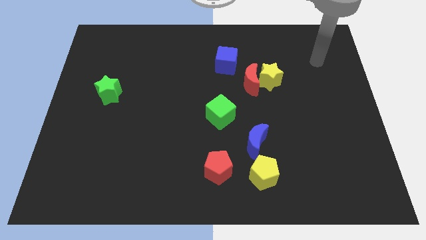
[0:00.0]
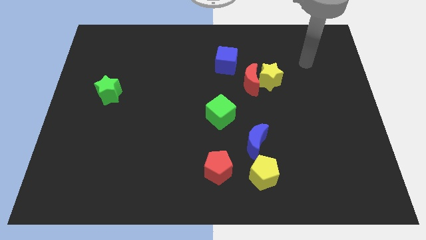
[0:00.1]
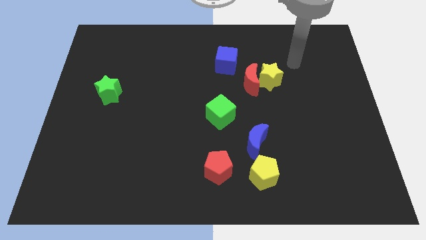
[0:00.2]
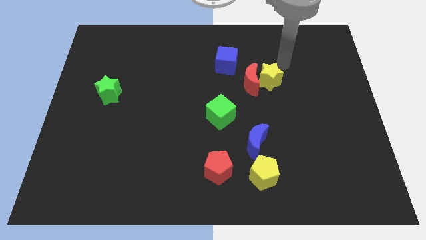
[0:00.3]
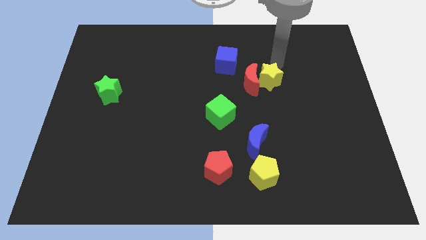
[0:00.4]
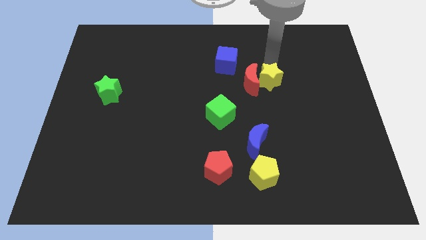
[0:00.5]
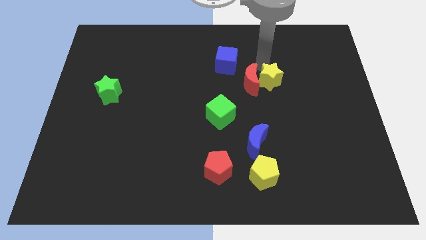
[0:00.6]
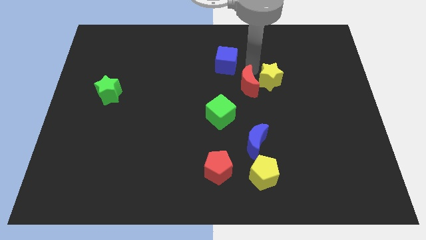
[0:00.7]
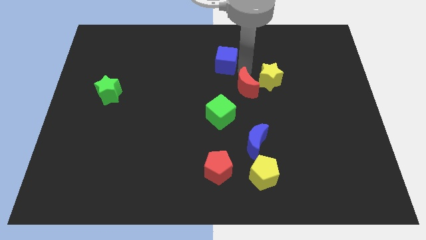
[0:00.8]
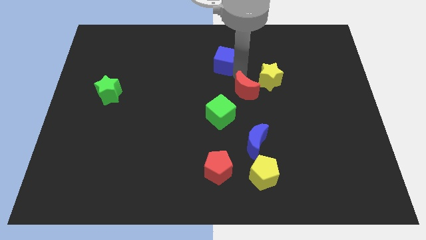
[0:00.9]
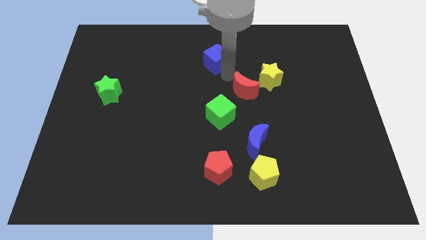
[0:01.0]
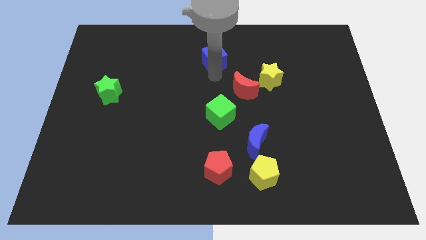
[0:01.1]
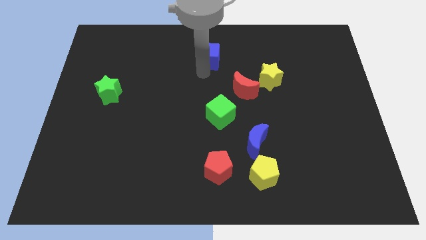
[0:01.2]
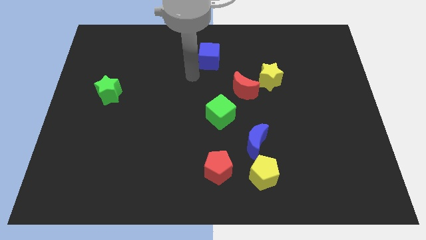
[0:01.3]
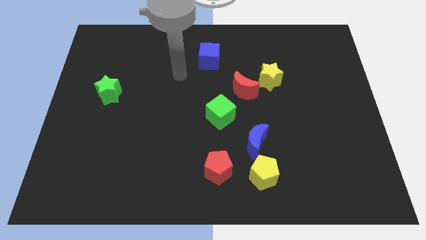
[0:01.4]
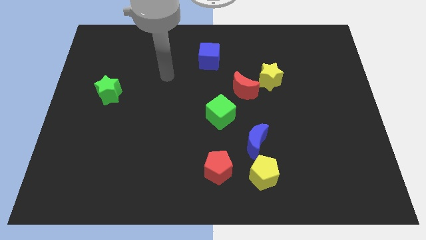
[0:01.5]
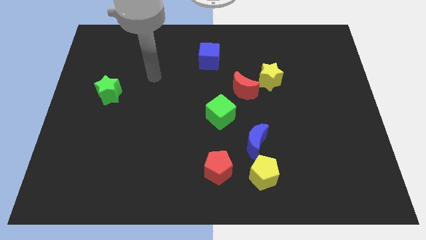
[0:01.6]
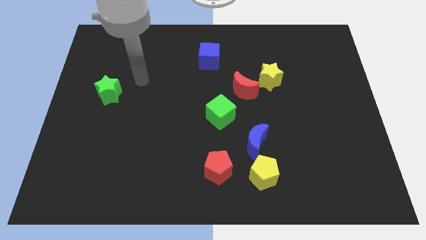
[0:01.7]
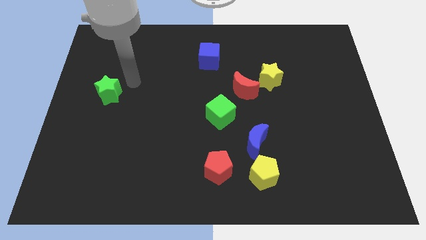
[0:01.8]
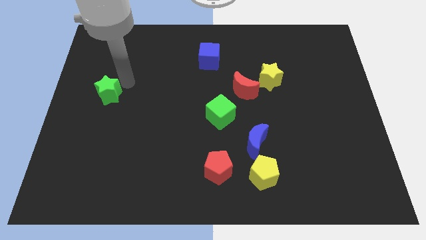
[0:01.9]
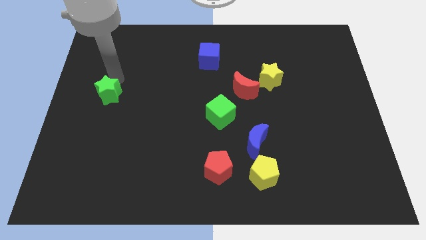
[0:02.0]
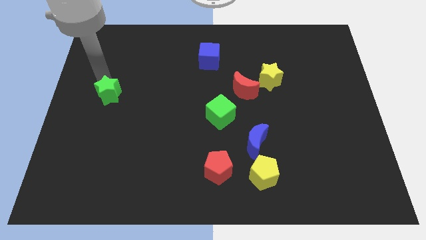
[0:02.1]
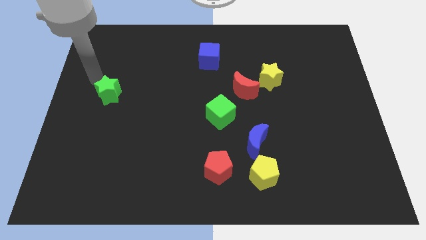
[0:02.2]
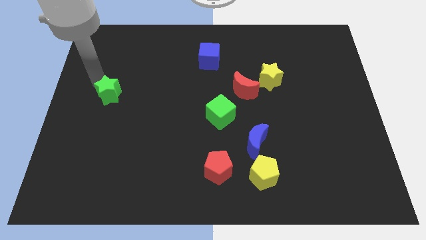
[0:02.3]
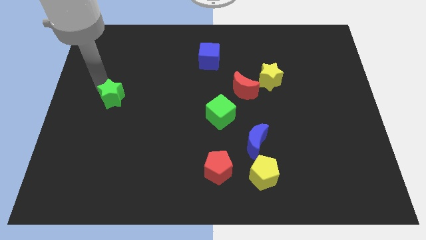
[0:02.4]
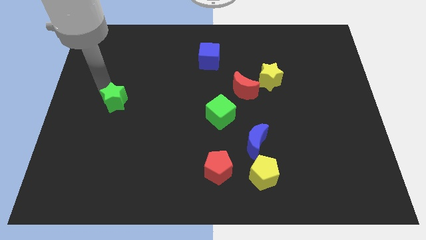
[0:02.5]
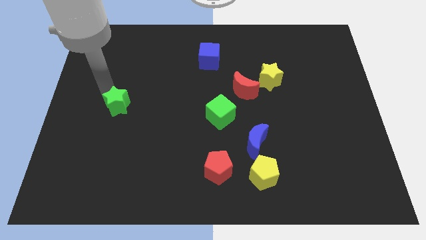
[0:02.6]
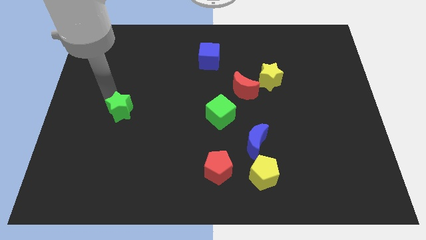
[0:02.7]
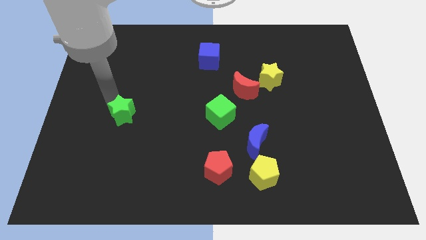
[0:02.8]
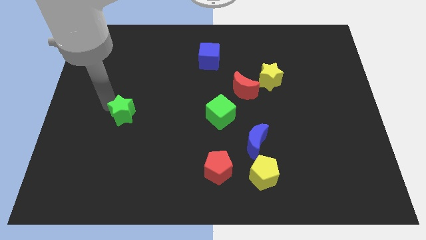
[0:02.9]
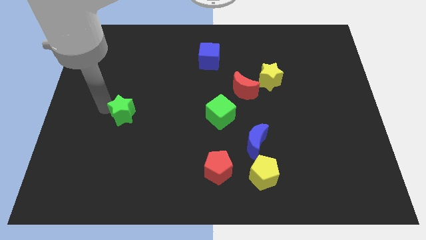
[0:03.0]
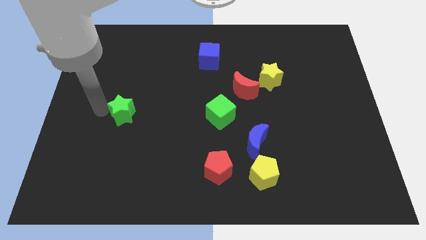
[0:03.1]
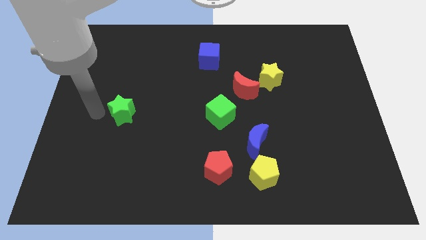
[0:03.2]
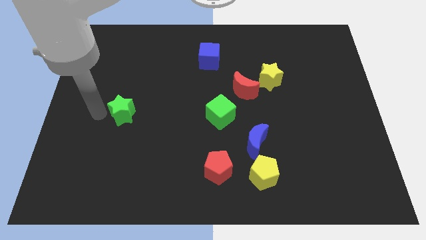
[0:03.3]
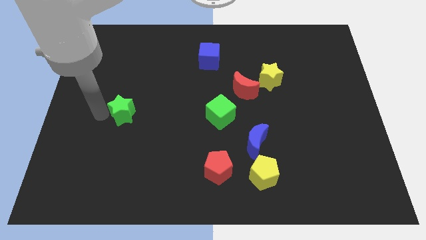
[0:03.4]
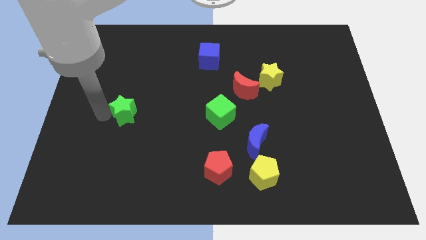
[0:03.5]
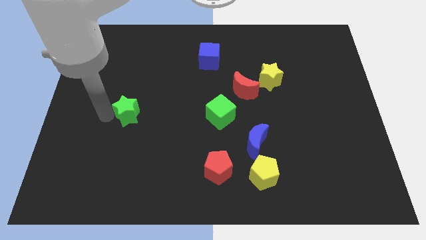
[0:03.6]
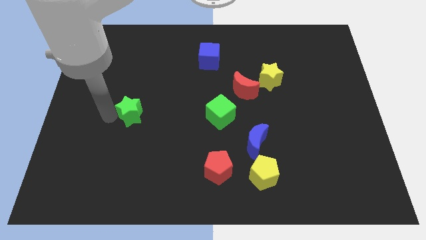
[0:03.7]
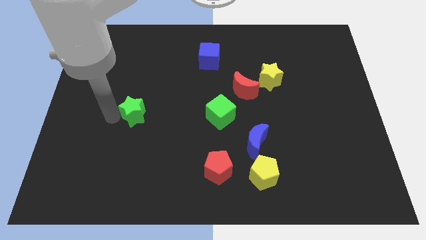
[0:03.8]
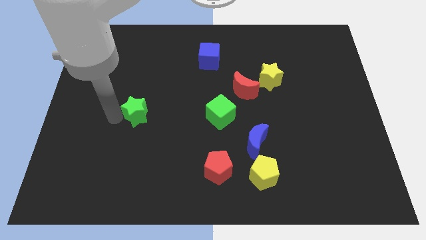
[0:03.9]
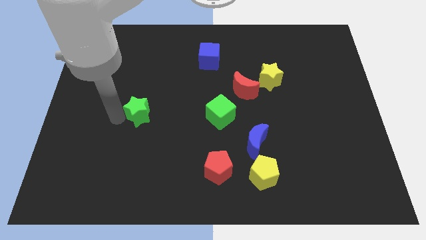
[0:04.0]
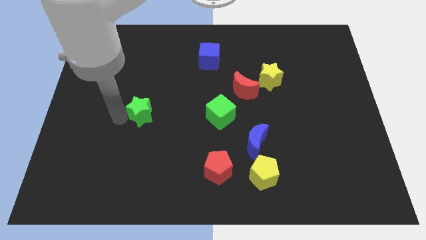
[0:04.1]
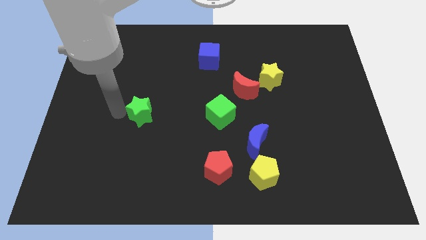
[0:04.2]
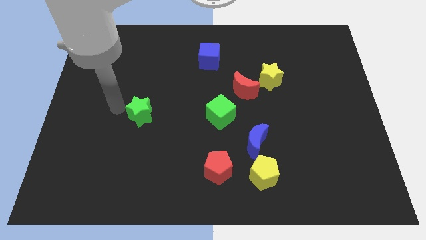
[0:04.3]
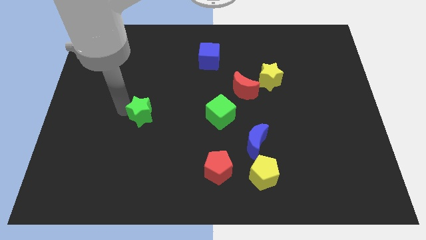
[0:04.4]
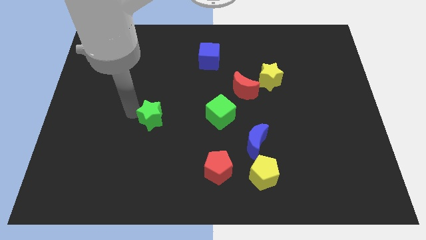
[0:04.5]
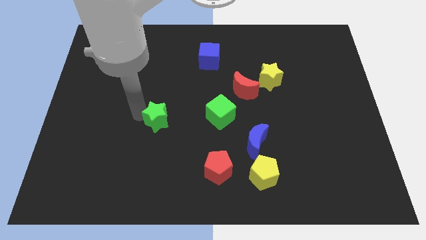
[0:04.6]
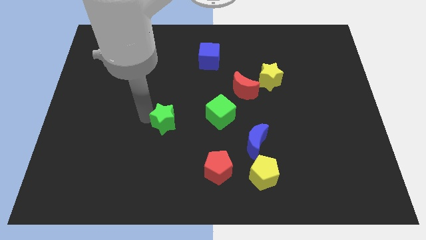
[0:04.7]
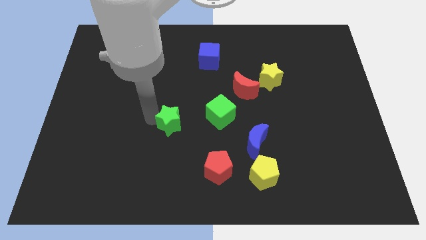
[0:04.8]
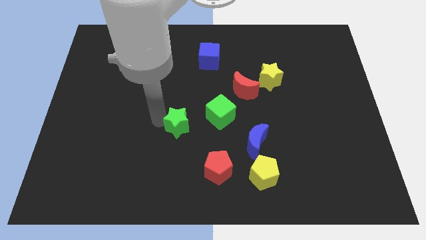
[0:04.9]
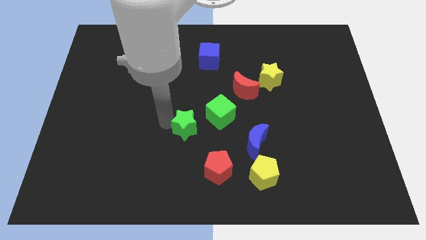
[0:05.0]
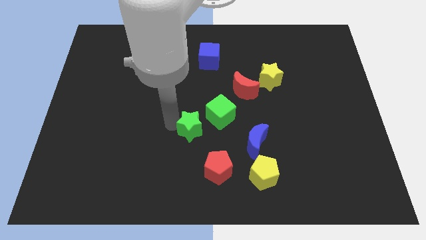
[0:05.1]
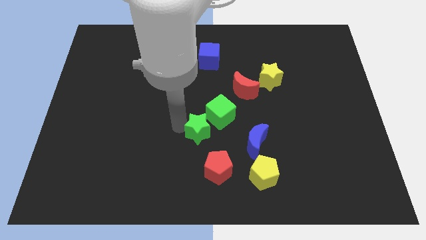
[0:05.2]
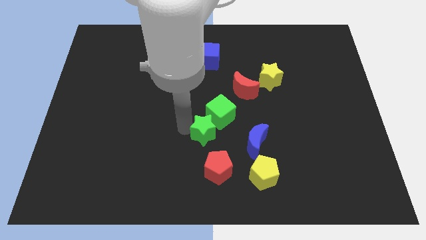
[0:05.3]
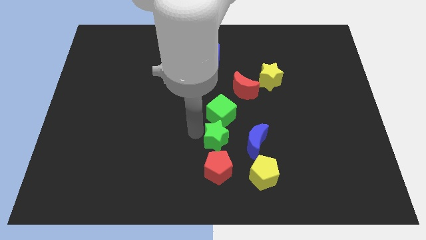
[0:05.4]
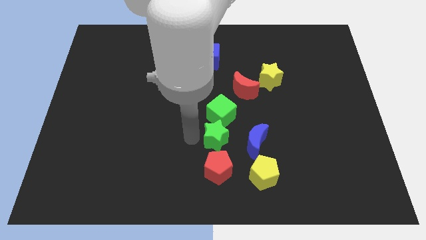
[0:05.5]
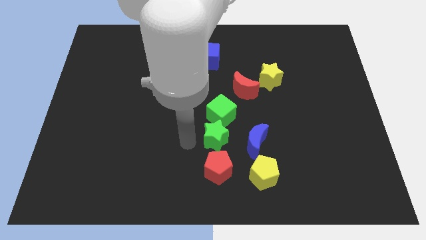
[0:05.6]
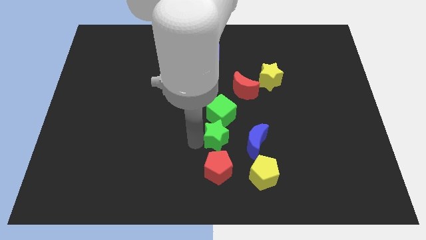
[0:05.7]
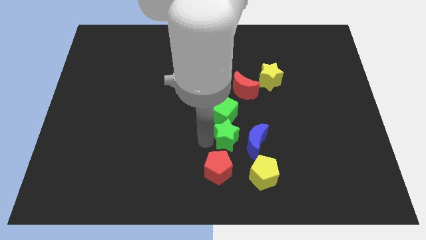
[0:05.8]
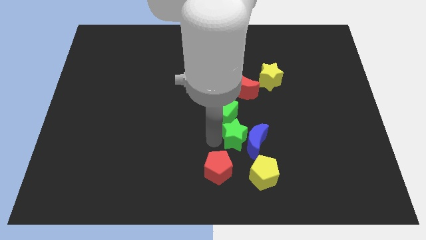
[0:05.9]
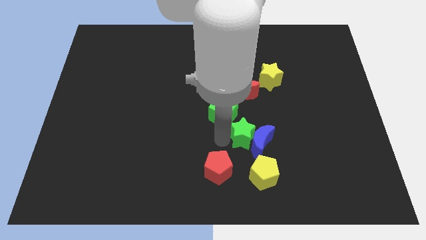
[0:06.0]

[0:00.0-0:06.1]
slide the green star above the yellow pentagon

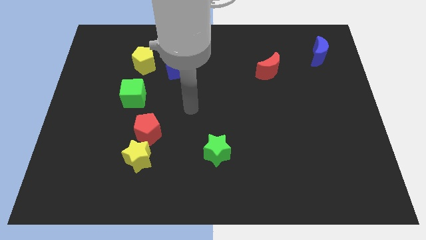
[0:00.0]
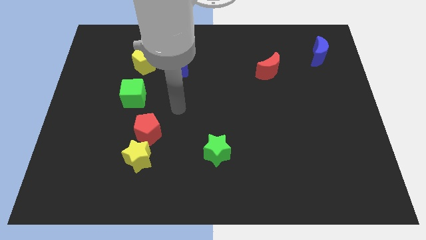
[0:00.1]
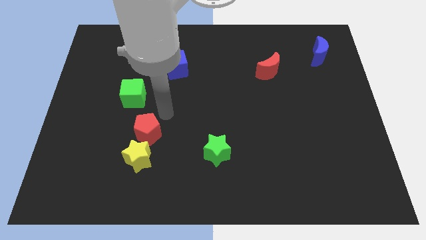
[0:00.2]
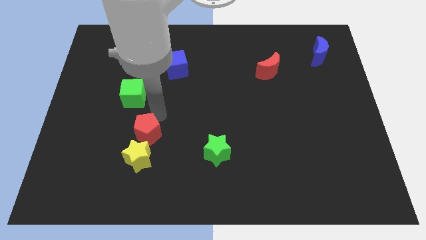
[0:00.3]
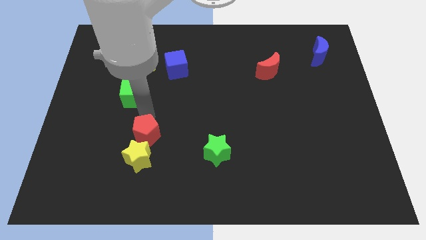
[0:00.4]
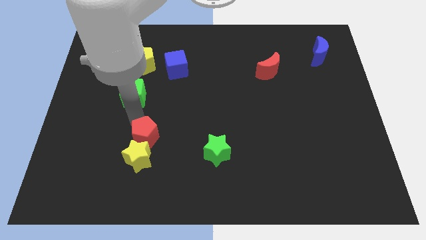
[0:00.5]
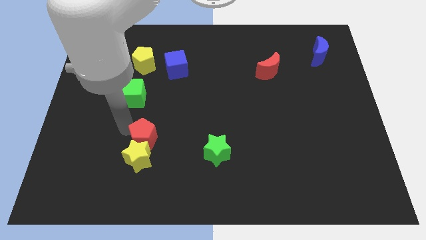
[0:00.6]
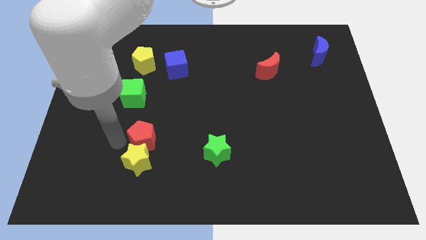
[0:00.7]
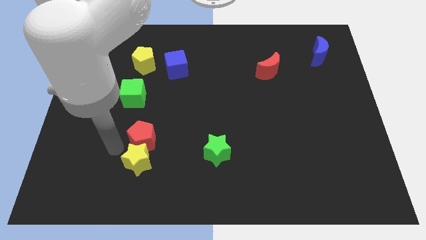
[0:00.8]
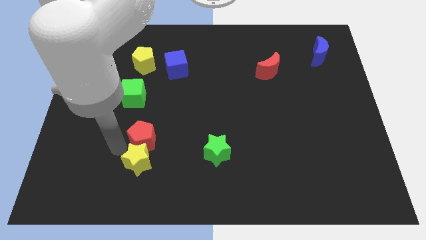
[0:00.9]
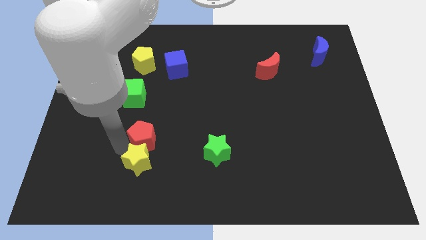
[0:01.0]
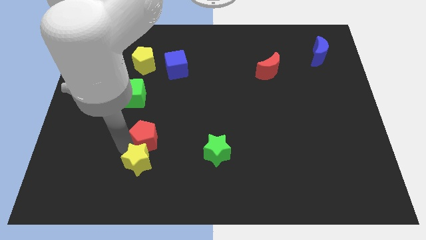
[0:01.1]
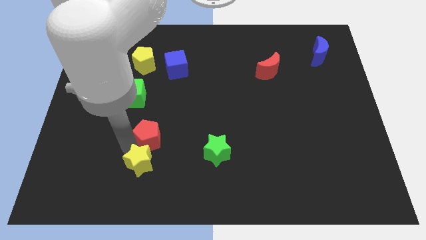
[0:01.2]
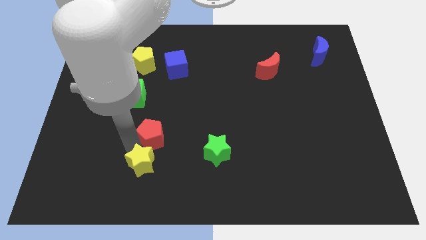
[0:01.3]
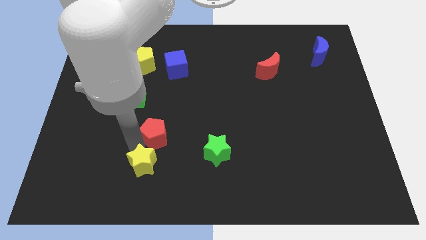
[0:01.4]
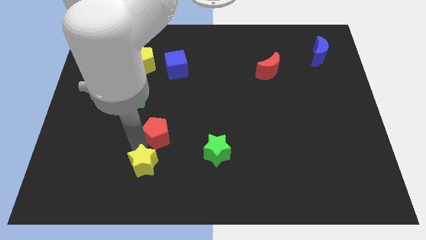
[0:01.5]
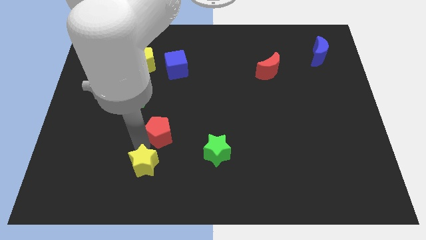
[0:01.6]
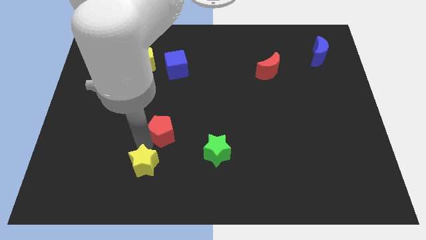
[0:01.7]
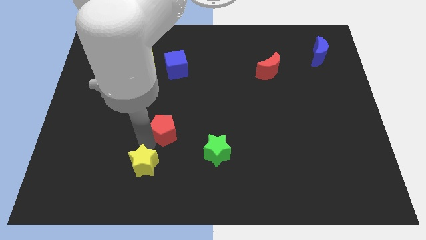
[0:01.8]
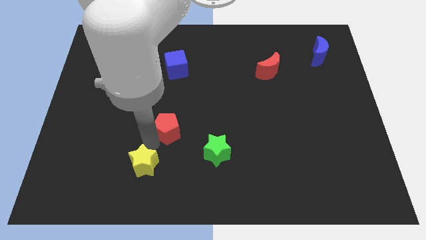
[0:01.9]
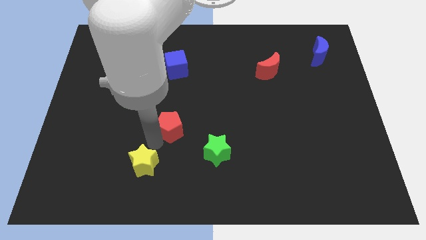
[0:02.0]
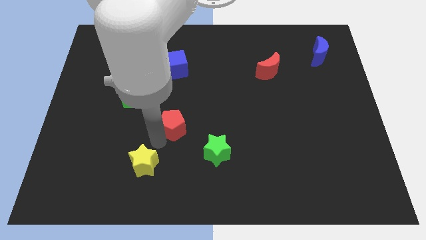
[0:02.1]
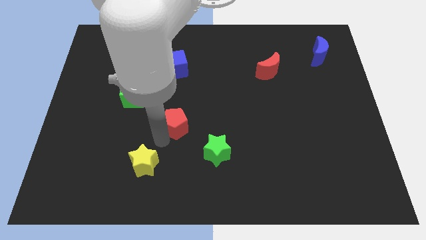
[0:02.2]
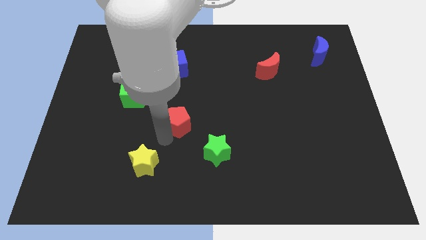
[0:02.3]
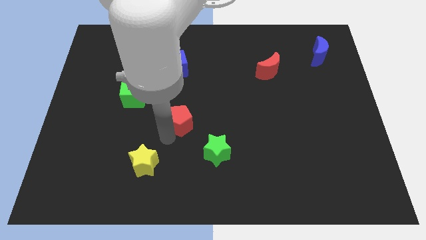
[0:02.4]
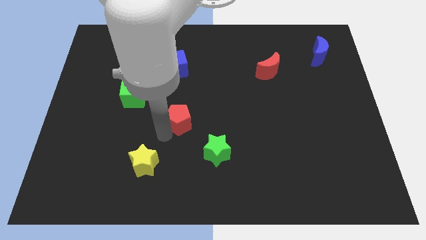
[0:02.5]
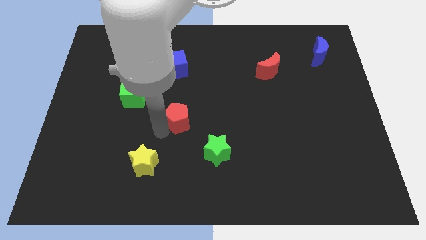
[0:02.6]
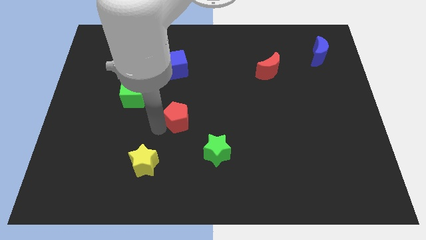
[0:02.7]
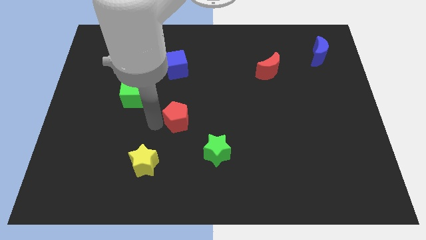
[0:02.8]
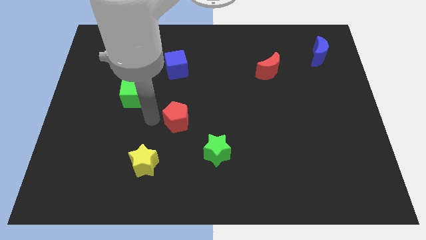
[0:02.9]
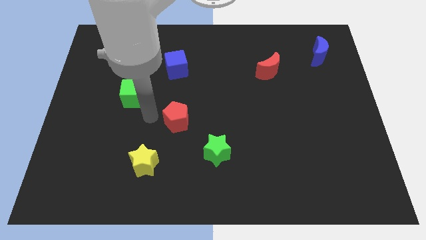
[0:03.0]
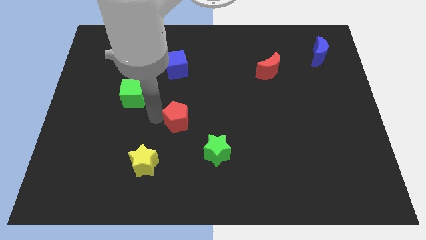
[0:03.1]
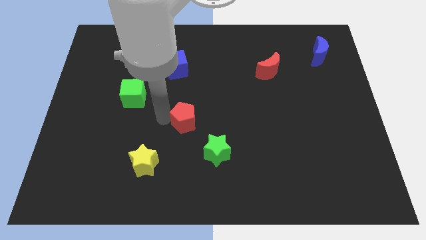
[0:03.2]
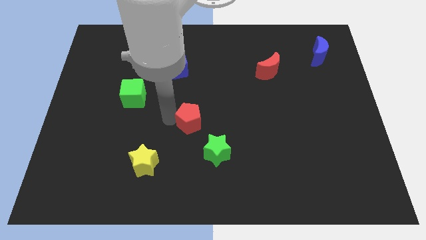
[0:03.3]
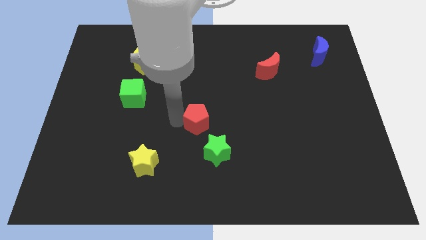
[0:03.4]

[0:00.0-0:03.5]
slide the red pentagon to the top side of the green star
